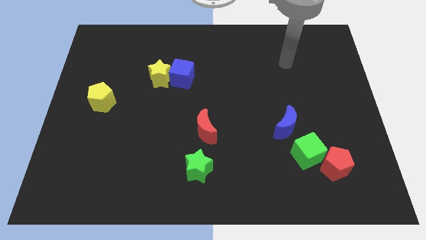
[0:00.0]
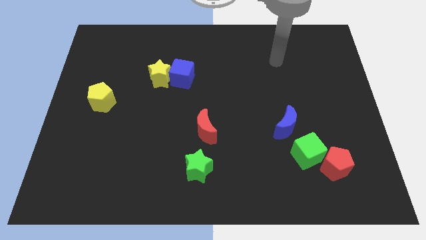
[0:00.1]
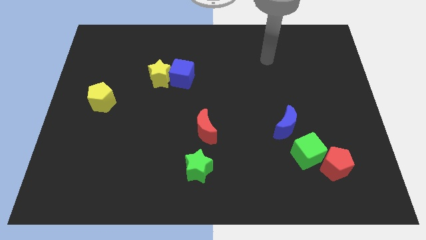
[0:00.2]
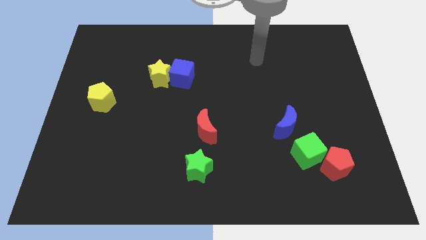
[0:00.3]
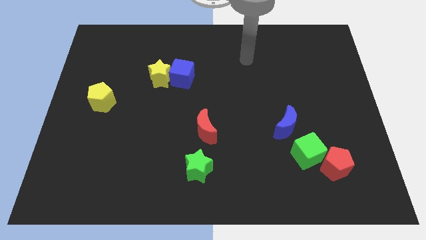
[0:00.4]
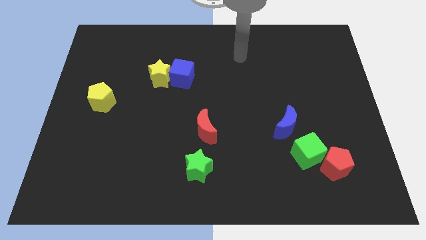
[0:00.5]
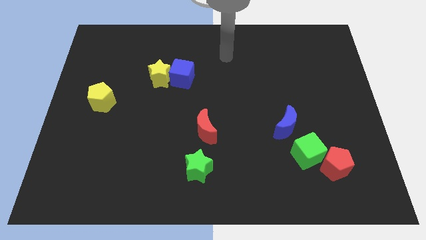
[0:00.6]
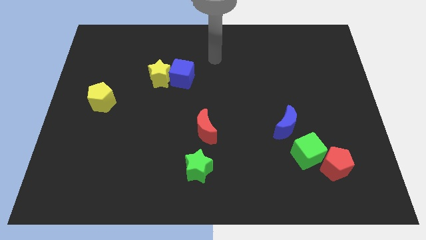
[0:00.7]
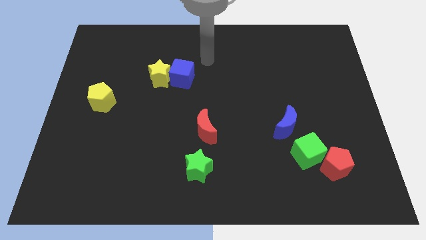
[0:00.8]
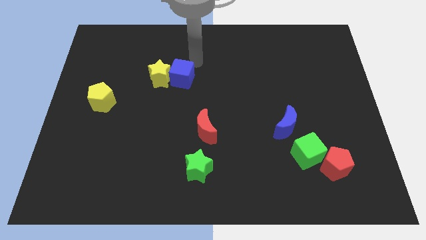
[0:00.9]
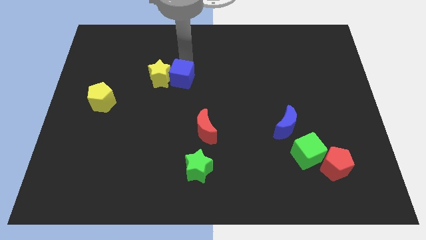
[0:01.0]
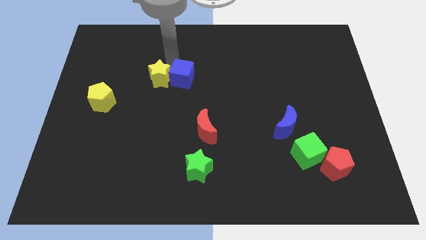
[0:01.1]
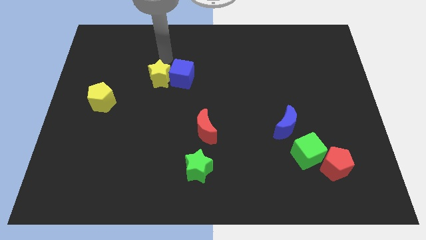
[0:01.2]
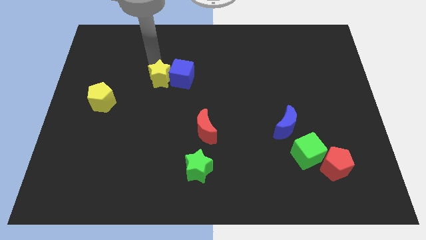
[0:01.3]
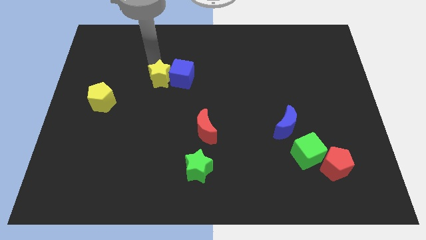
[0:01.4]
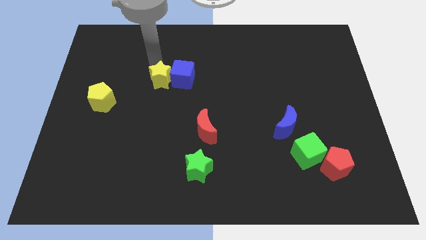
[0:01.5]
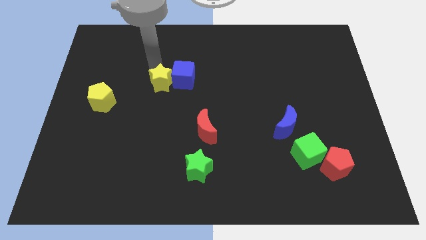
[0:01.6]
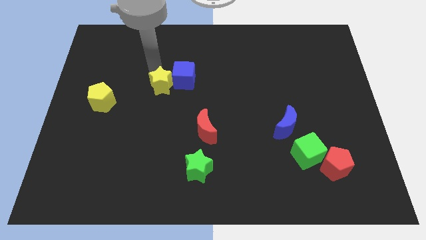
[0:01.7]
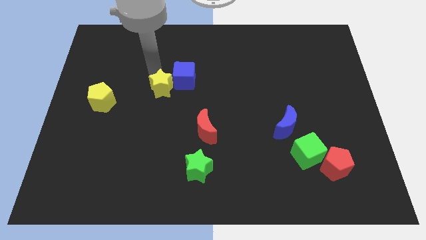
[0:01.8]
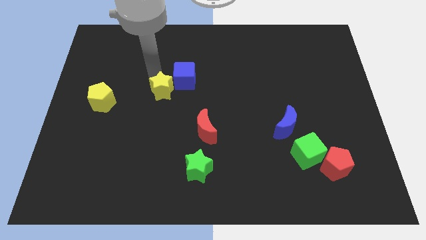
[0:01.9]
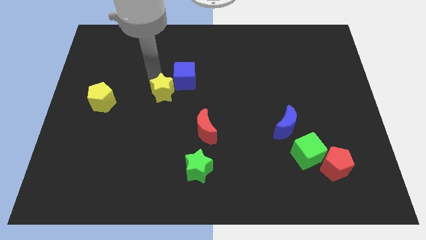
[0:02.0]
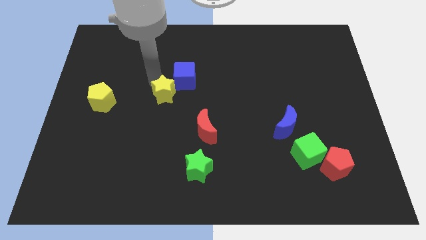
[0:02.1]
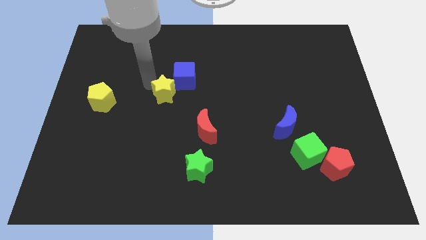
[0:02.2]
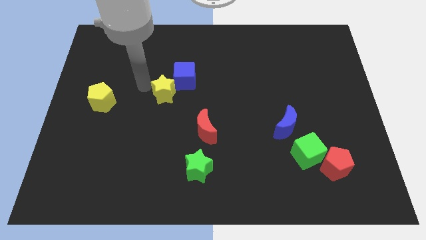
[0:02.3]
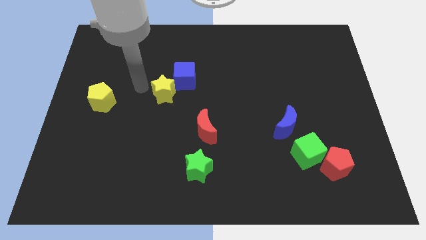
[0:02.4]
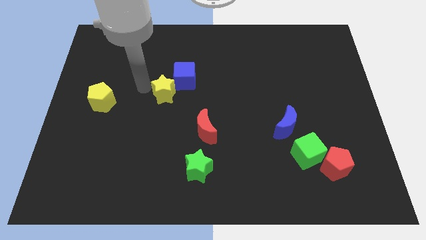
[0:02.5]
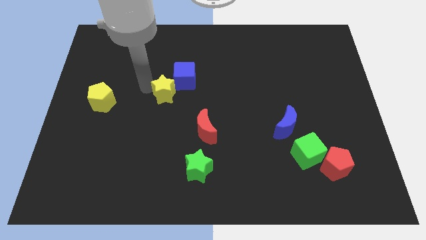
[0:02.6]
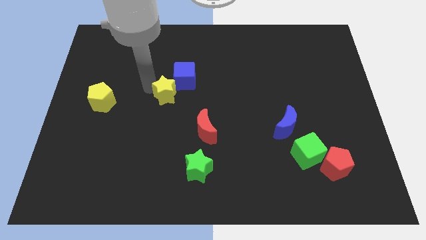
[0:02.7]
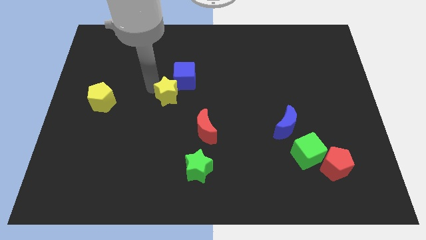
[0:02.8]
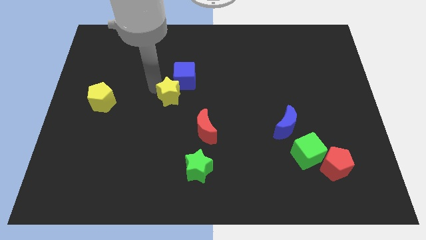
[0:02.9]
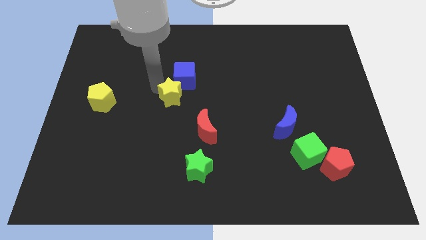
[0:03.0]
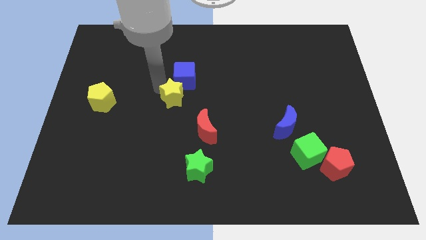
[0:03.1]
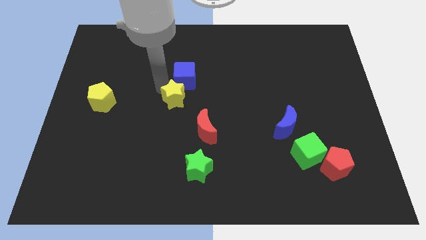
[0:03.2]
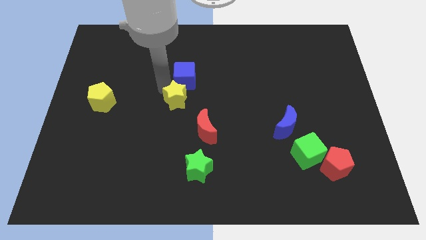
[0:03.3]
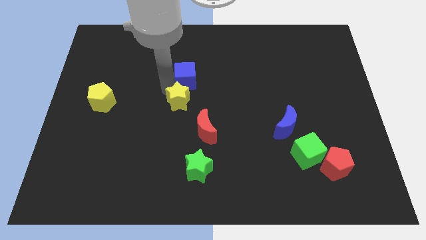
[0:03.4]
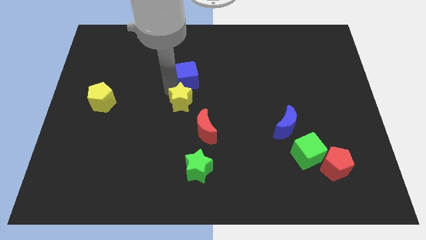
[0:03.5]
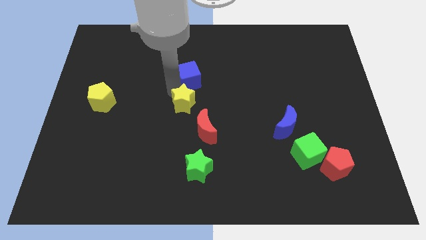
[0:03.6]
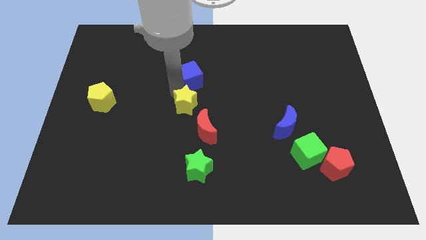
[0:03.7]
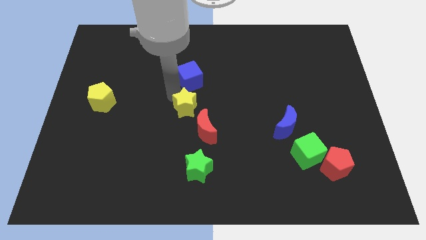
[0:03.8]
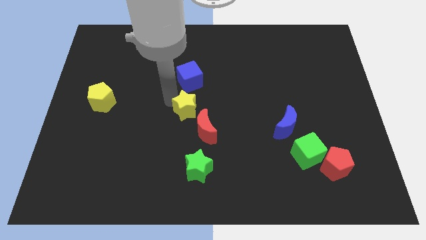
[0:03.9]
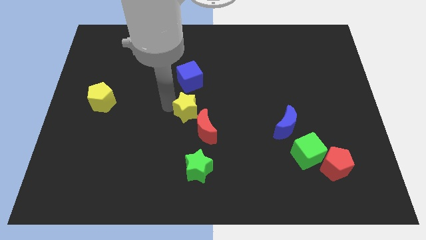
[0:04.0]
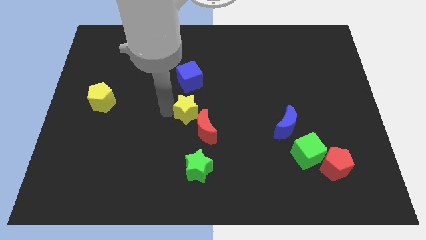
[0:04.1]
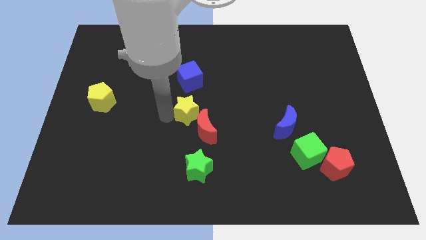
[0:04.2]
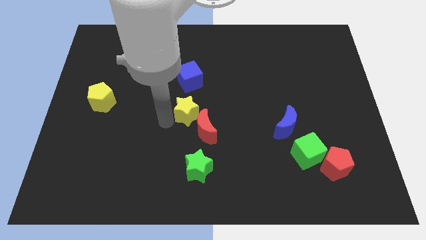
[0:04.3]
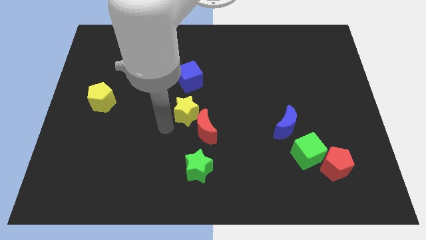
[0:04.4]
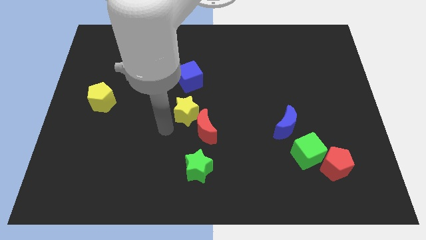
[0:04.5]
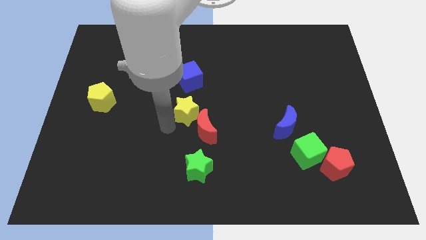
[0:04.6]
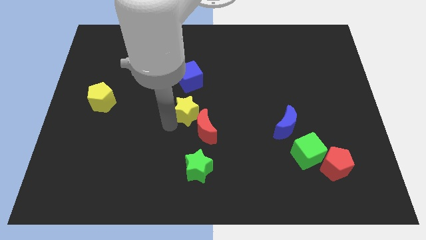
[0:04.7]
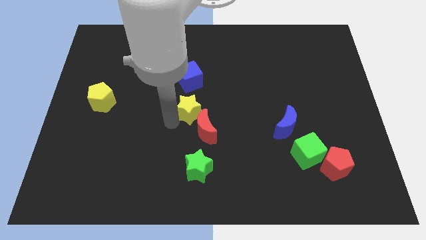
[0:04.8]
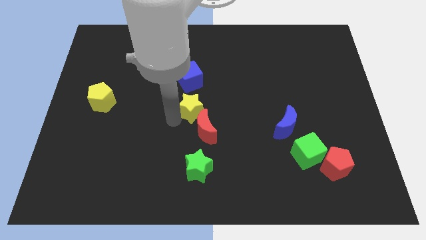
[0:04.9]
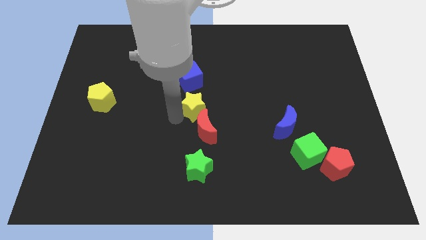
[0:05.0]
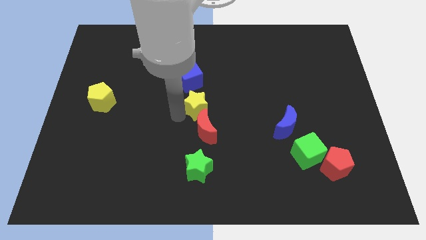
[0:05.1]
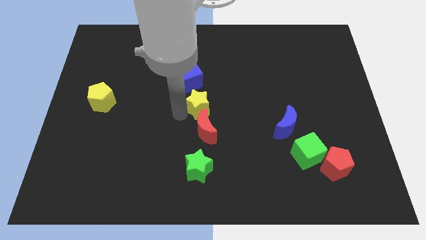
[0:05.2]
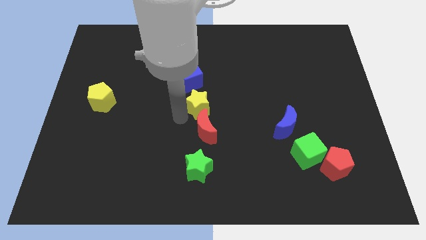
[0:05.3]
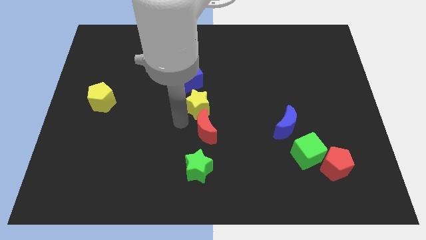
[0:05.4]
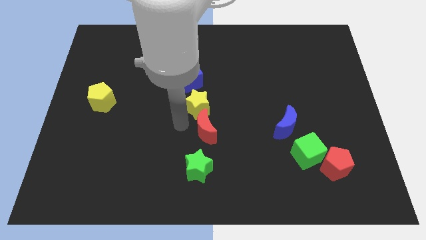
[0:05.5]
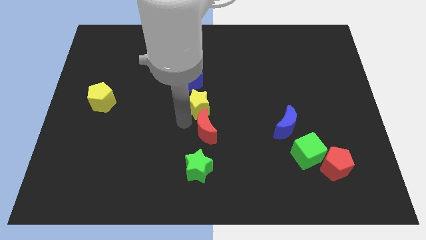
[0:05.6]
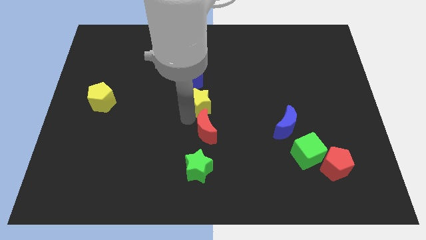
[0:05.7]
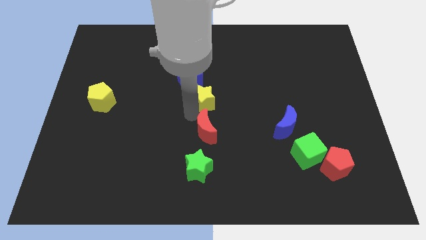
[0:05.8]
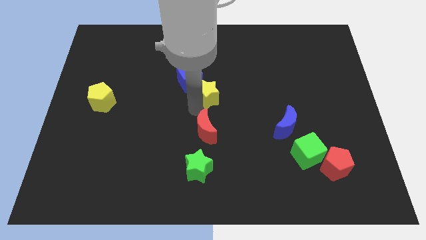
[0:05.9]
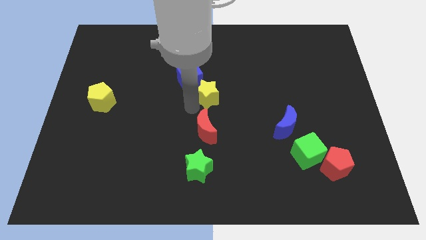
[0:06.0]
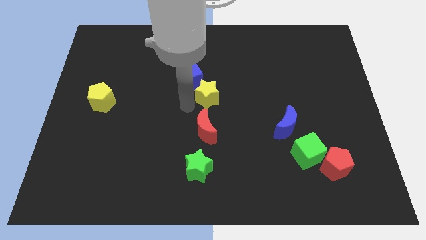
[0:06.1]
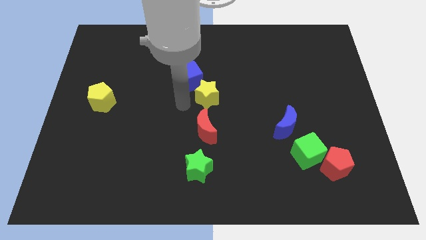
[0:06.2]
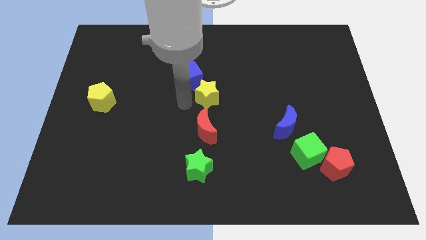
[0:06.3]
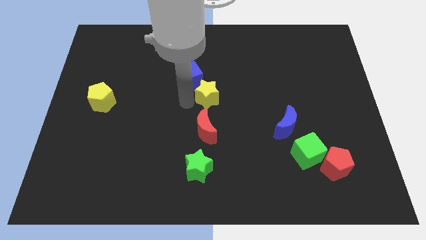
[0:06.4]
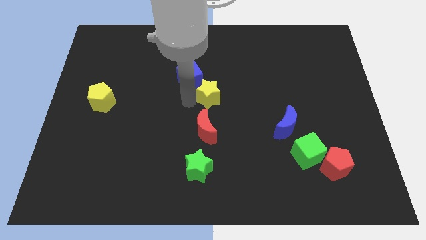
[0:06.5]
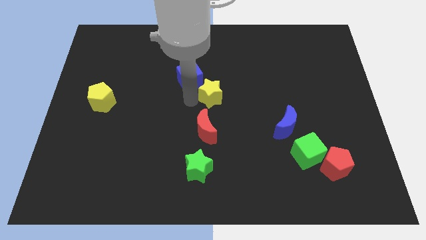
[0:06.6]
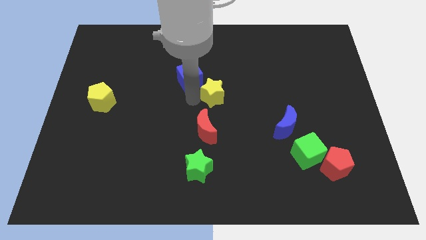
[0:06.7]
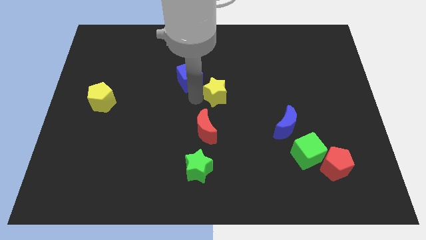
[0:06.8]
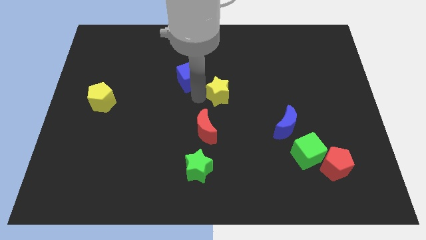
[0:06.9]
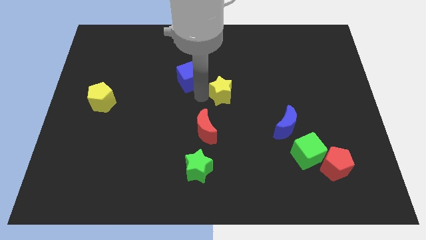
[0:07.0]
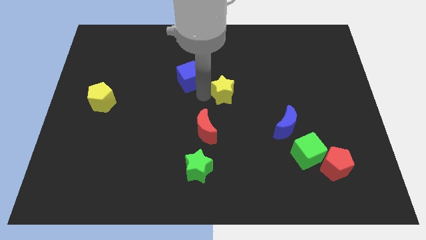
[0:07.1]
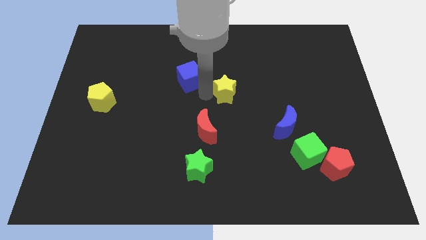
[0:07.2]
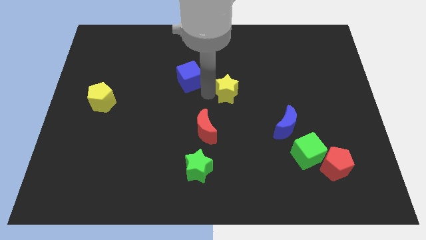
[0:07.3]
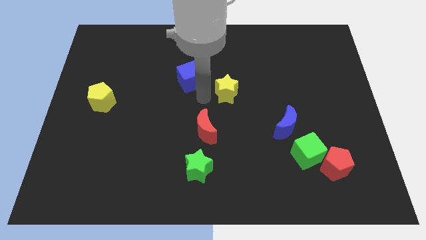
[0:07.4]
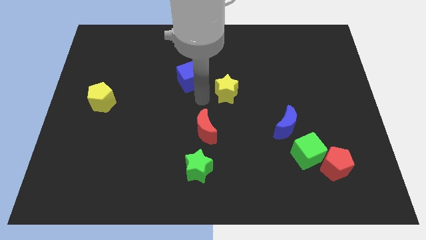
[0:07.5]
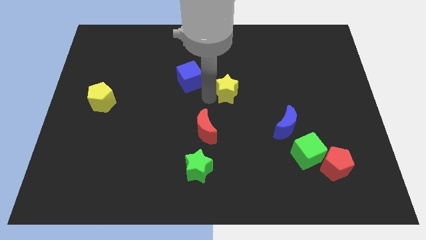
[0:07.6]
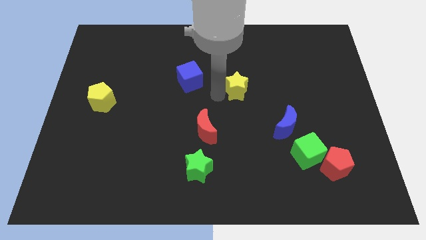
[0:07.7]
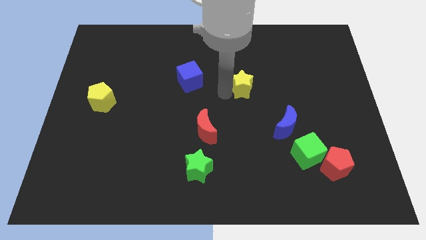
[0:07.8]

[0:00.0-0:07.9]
slide the yellow star to the right

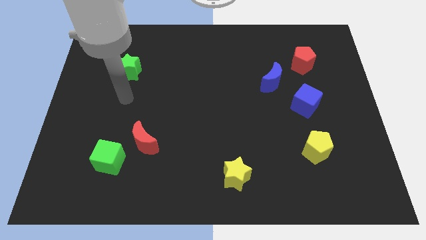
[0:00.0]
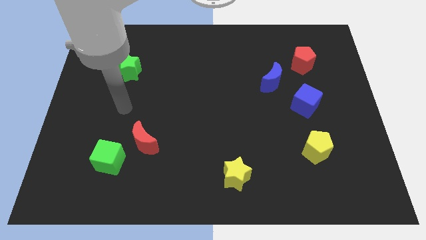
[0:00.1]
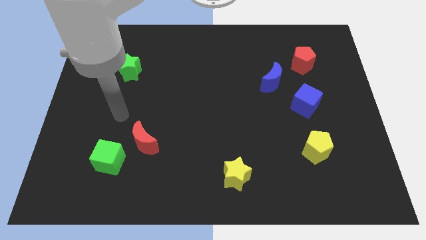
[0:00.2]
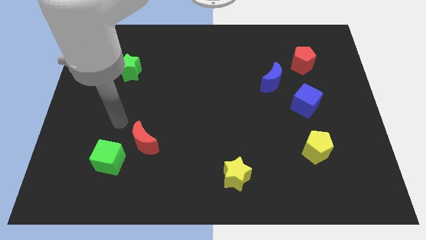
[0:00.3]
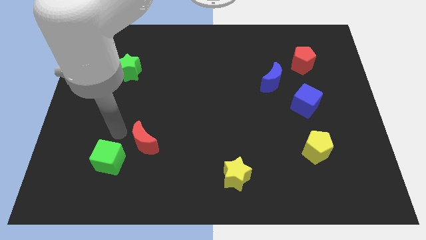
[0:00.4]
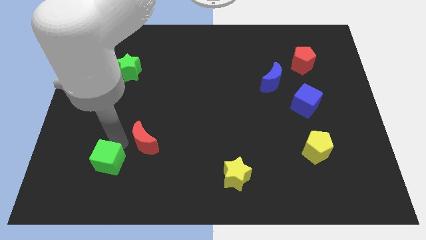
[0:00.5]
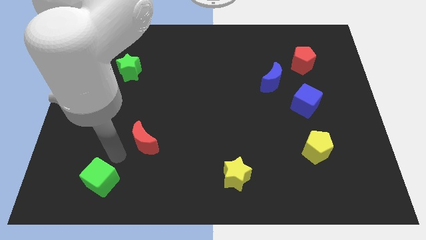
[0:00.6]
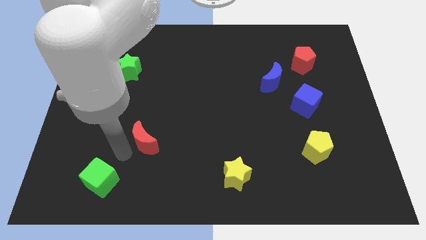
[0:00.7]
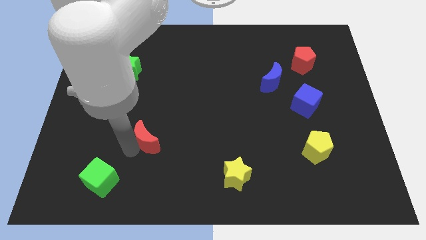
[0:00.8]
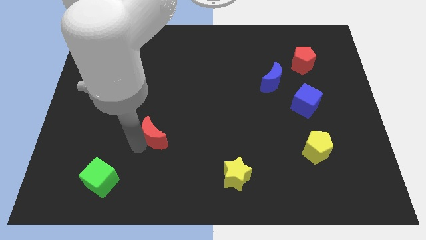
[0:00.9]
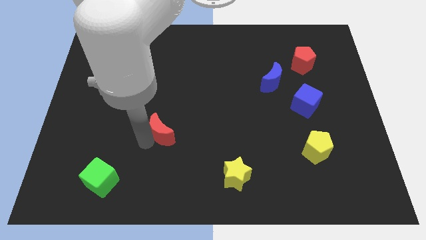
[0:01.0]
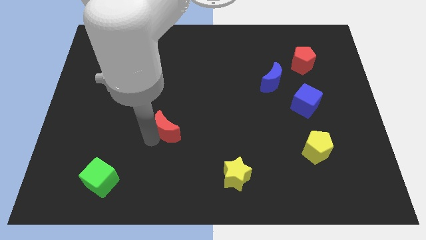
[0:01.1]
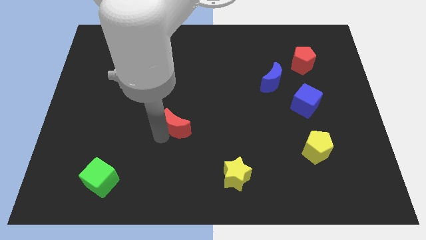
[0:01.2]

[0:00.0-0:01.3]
push the red moon upwards and then to the right a bit
